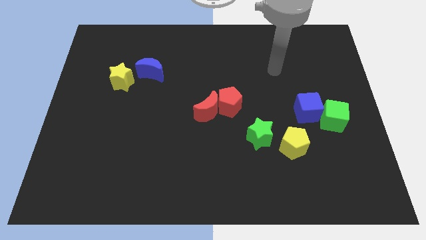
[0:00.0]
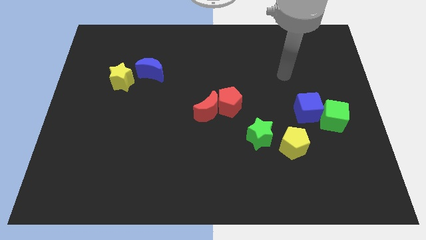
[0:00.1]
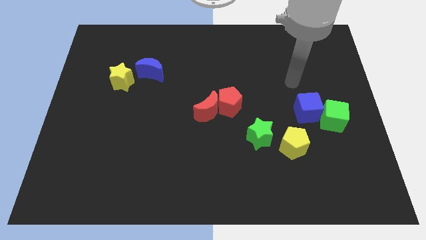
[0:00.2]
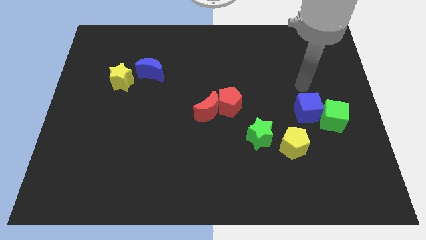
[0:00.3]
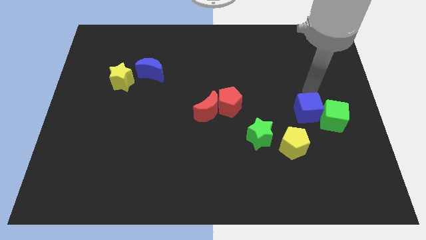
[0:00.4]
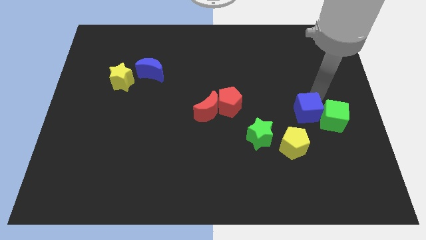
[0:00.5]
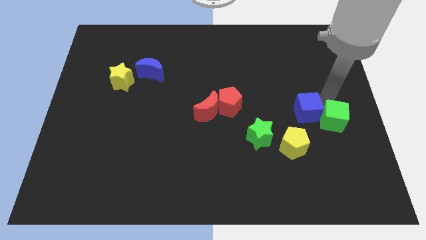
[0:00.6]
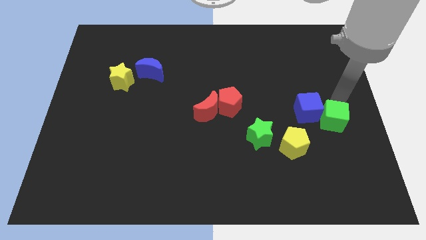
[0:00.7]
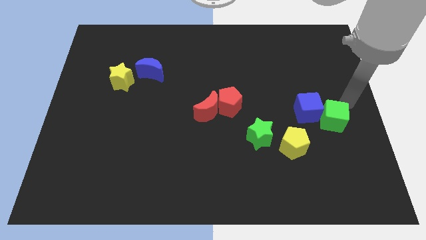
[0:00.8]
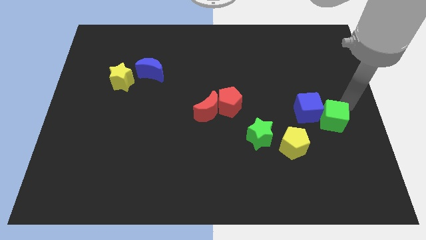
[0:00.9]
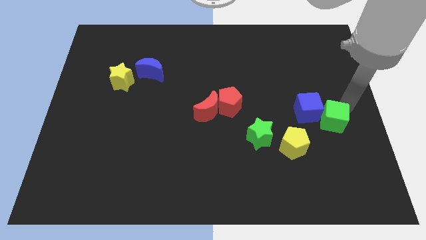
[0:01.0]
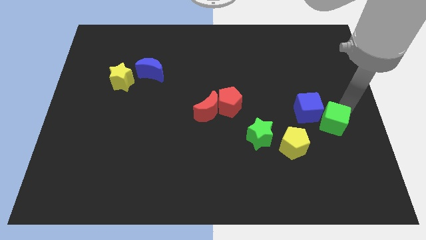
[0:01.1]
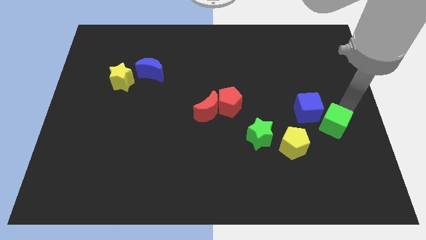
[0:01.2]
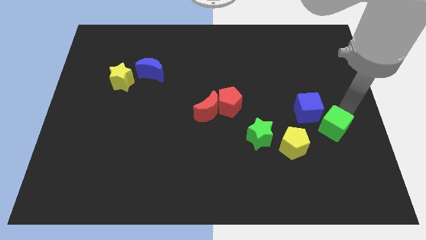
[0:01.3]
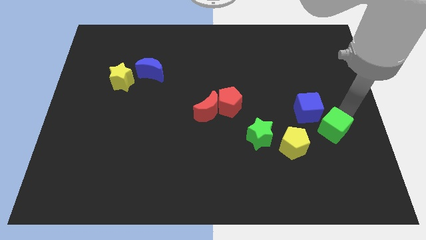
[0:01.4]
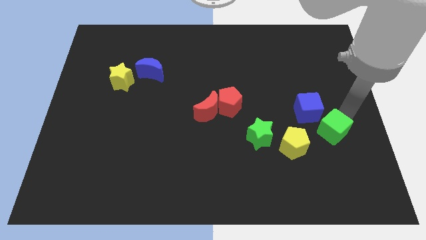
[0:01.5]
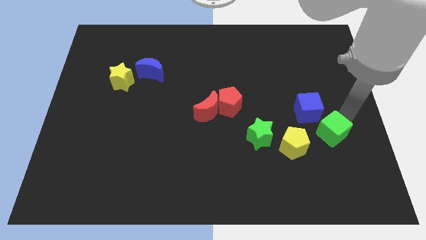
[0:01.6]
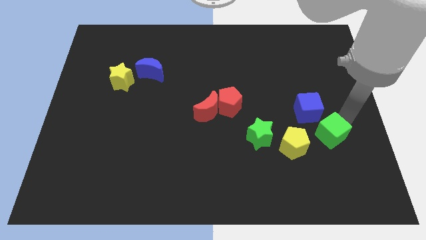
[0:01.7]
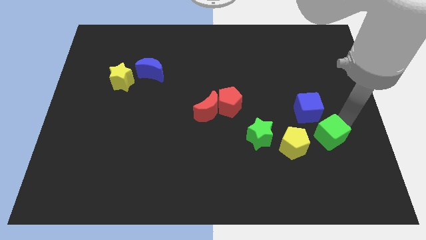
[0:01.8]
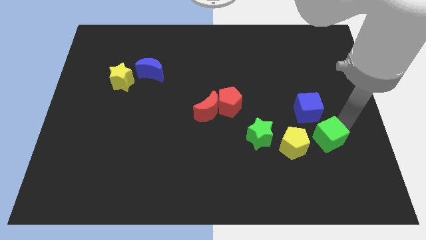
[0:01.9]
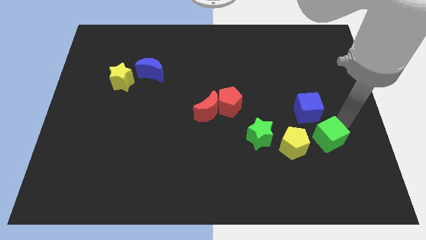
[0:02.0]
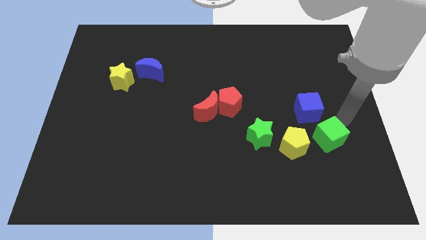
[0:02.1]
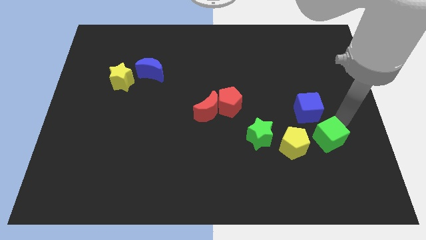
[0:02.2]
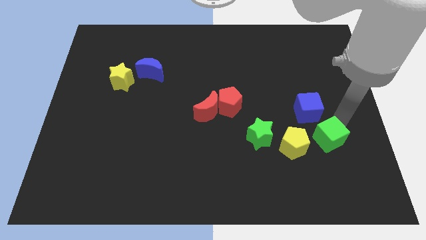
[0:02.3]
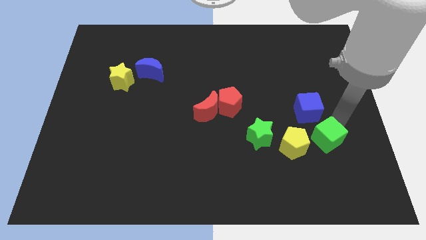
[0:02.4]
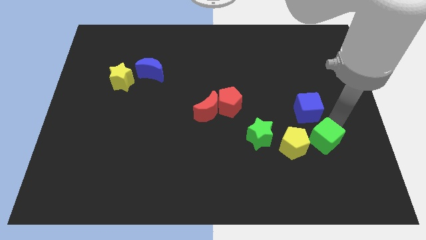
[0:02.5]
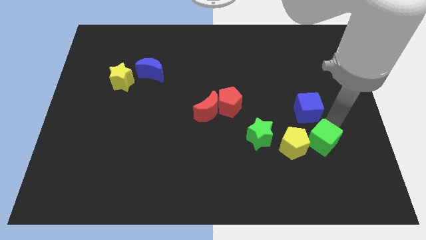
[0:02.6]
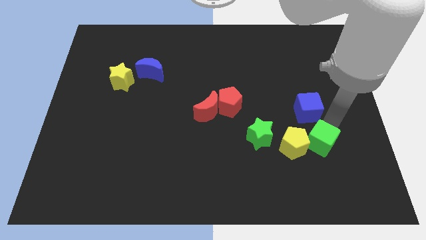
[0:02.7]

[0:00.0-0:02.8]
push the green cube downwards and to the left a bit

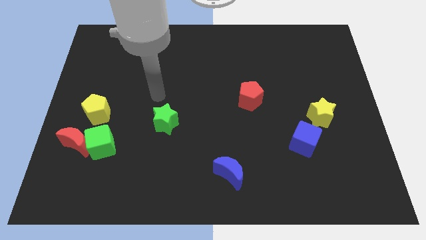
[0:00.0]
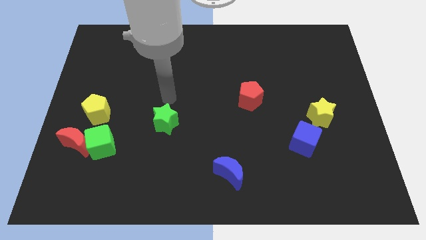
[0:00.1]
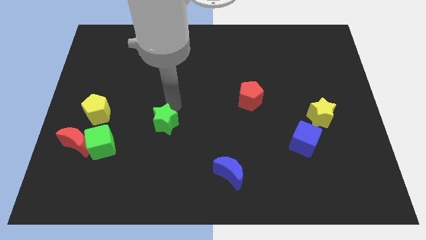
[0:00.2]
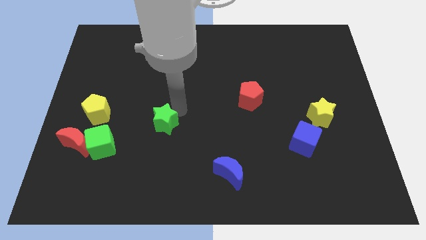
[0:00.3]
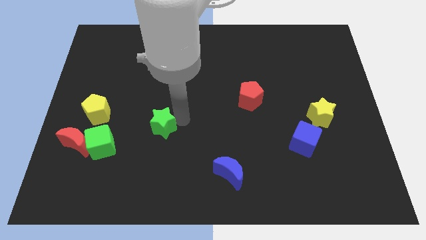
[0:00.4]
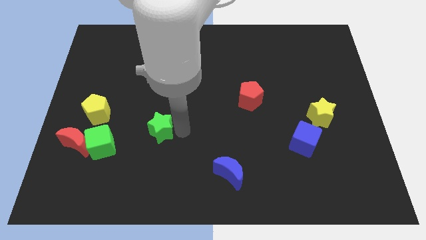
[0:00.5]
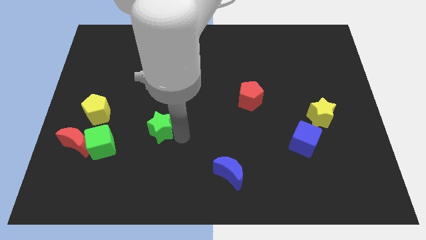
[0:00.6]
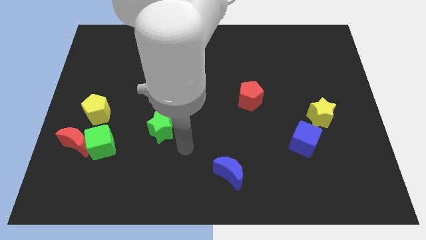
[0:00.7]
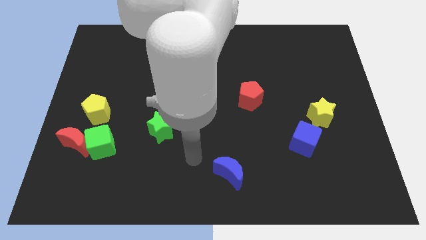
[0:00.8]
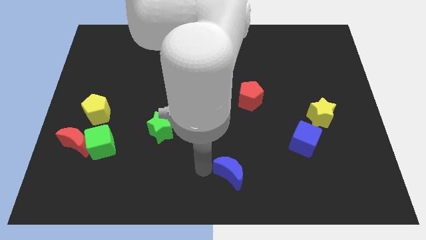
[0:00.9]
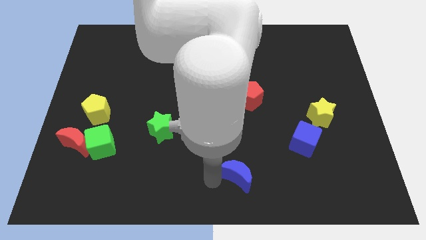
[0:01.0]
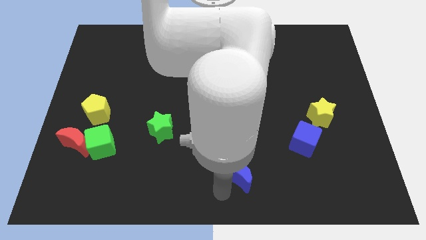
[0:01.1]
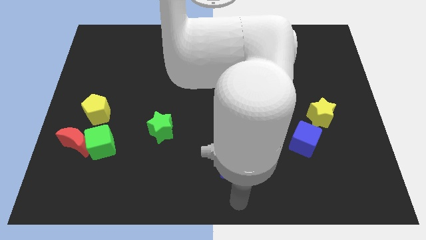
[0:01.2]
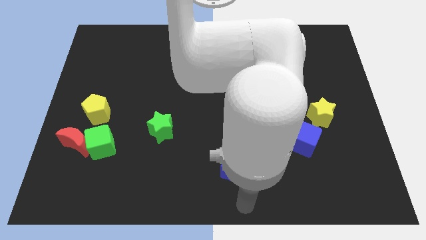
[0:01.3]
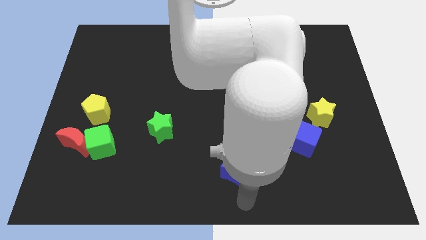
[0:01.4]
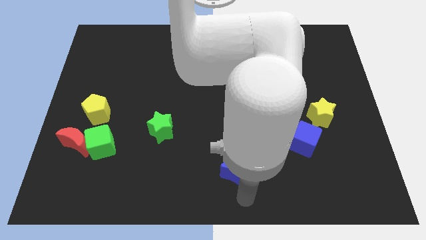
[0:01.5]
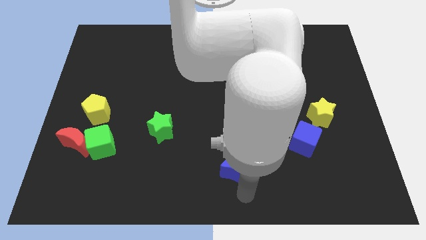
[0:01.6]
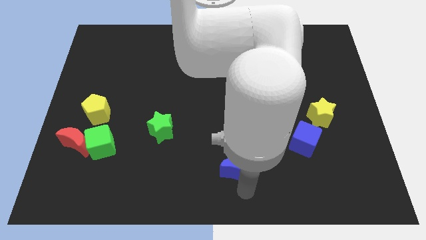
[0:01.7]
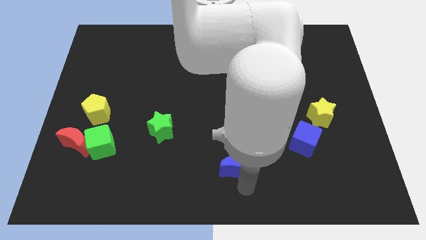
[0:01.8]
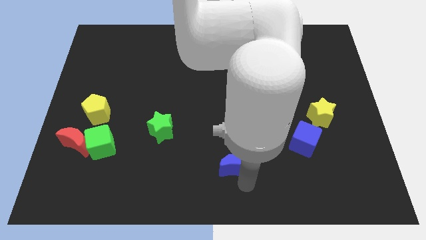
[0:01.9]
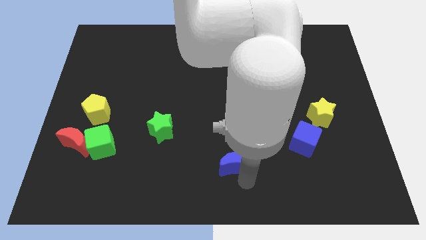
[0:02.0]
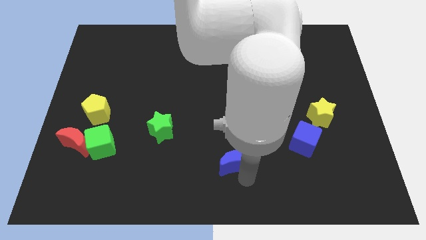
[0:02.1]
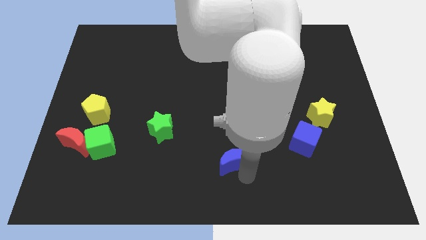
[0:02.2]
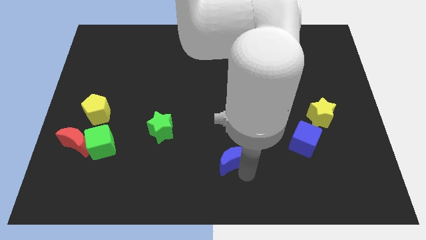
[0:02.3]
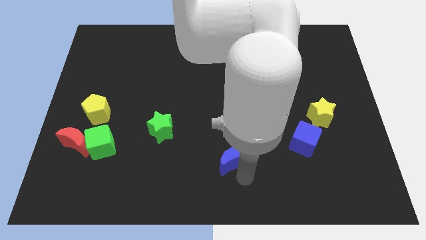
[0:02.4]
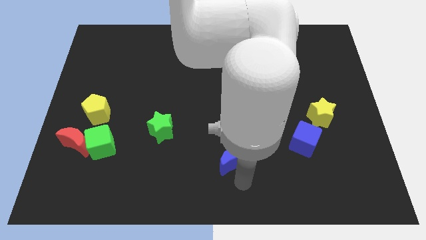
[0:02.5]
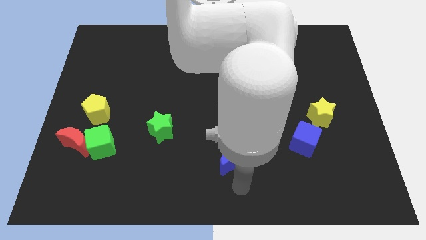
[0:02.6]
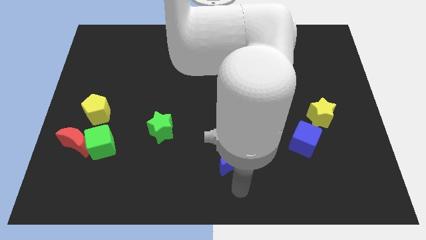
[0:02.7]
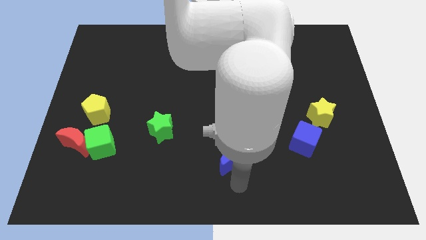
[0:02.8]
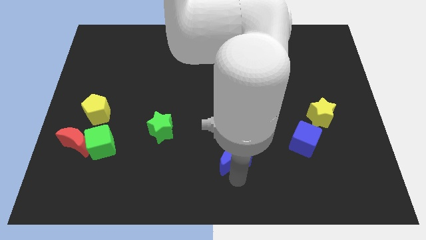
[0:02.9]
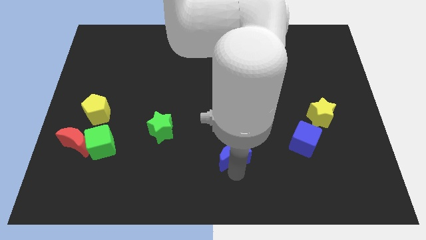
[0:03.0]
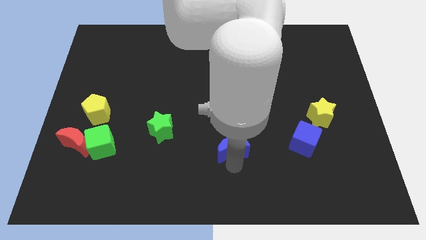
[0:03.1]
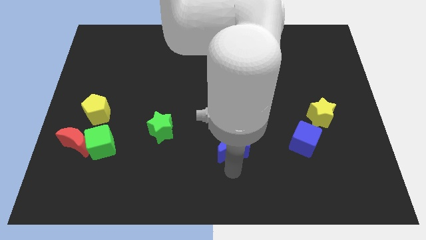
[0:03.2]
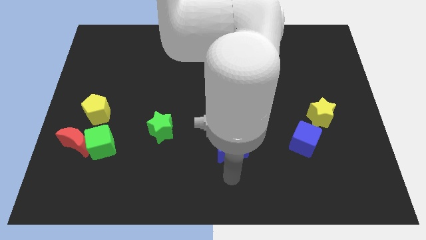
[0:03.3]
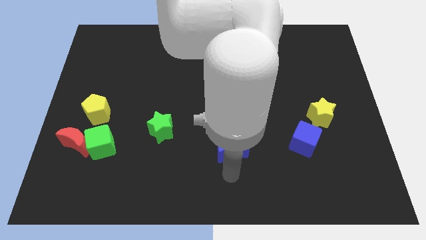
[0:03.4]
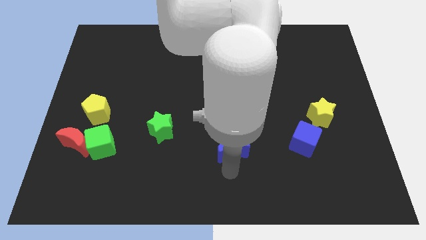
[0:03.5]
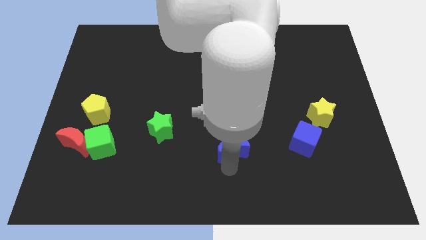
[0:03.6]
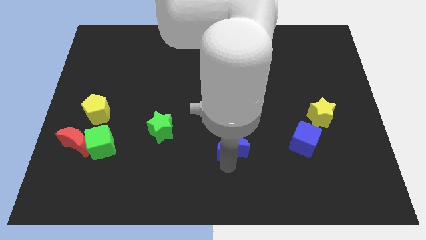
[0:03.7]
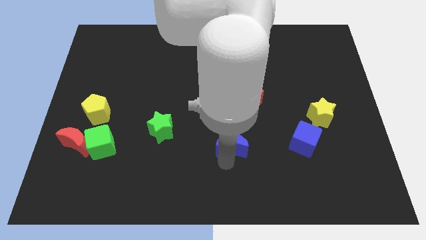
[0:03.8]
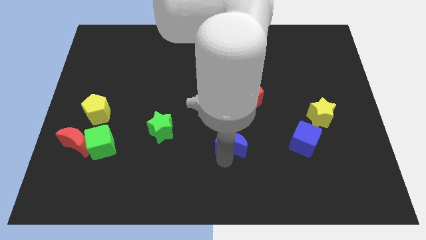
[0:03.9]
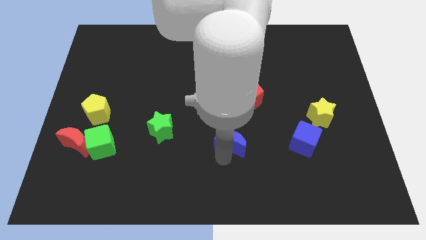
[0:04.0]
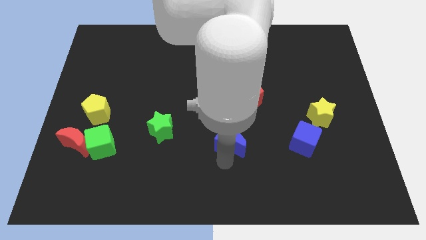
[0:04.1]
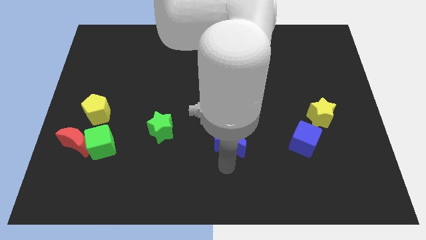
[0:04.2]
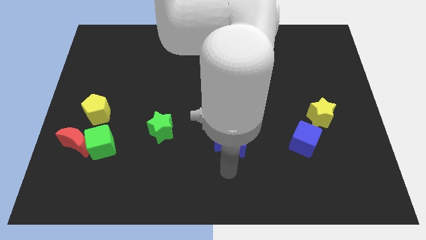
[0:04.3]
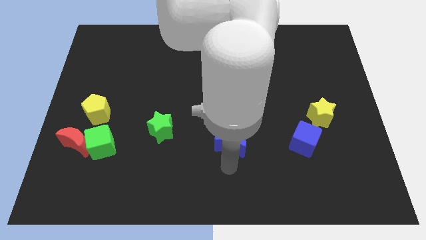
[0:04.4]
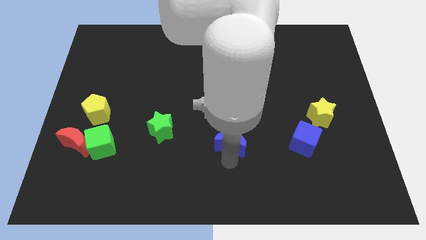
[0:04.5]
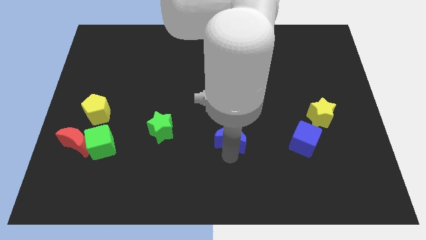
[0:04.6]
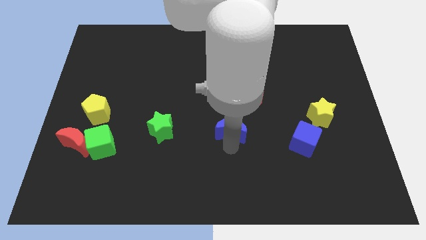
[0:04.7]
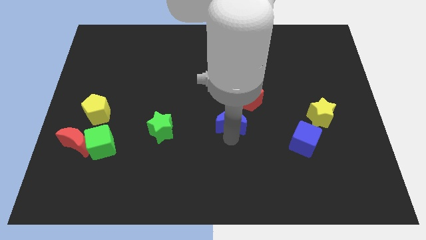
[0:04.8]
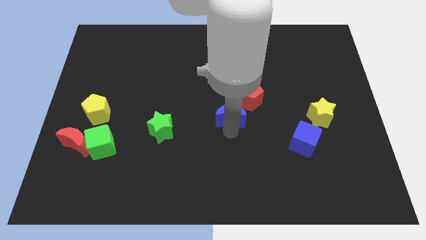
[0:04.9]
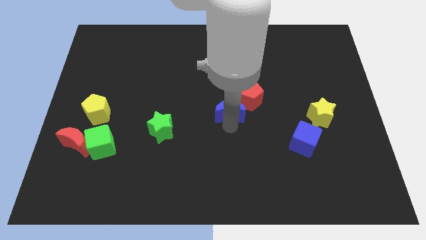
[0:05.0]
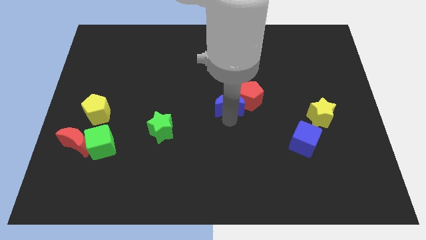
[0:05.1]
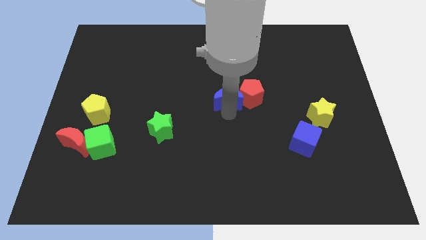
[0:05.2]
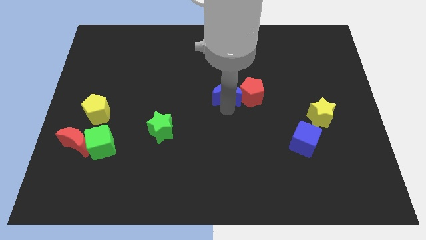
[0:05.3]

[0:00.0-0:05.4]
slide the blue moon upwards
